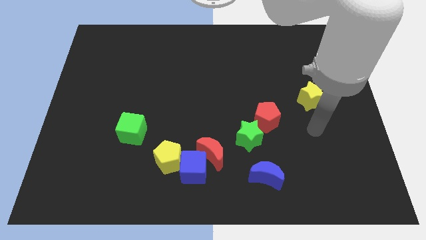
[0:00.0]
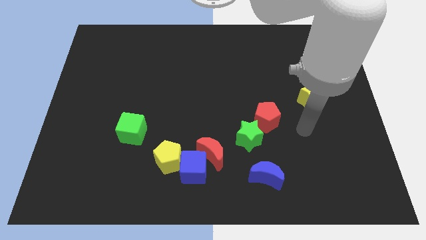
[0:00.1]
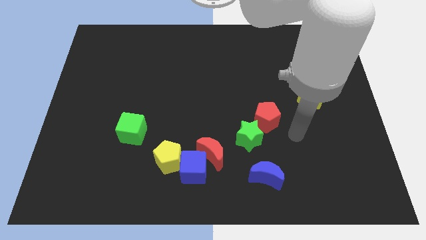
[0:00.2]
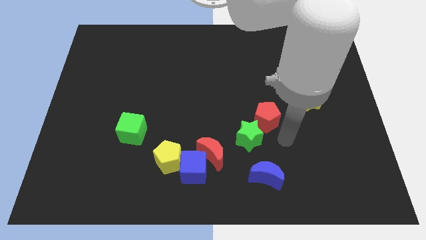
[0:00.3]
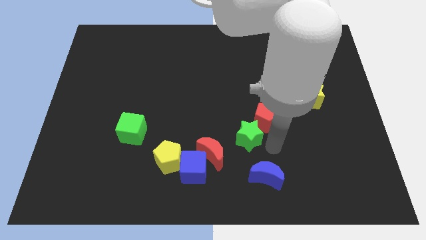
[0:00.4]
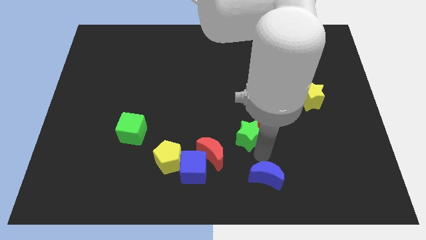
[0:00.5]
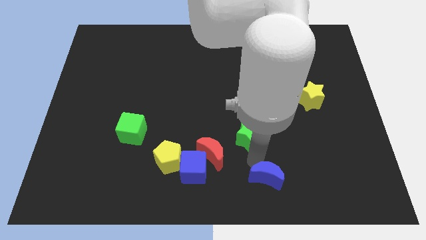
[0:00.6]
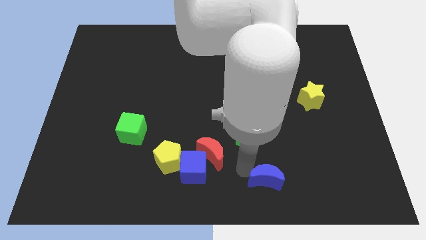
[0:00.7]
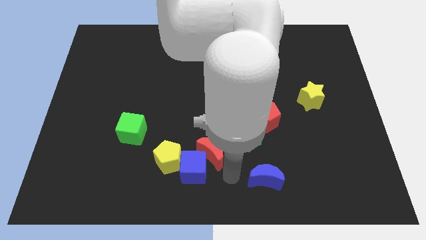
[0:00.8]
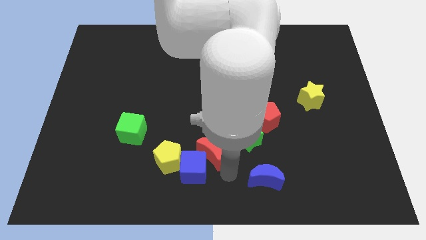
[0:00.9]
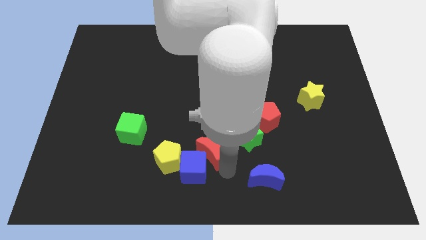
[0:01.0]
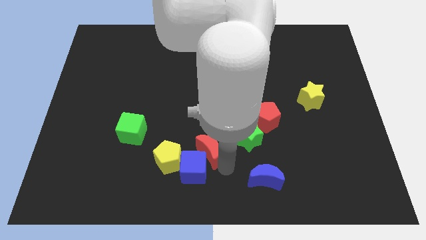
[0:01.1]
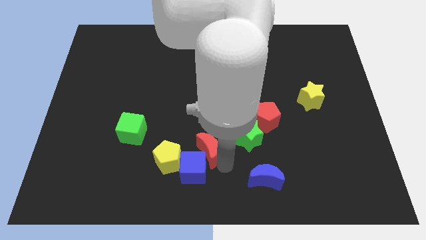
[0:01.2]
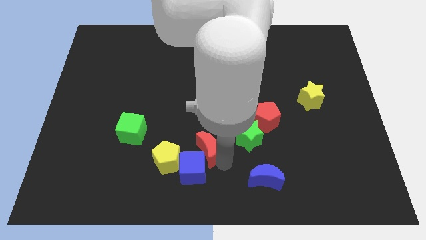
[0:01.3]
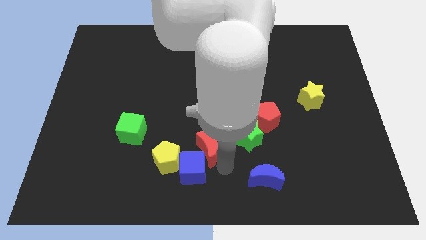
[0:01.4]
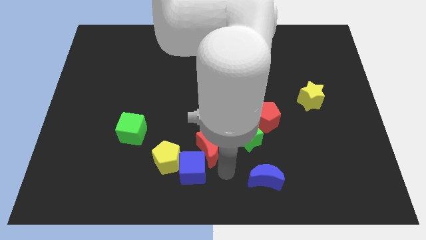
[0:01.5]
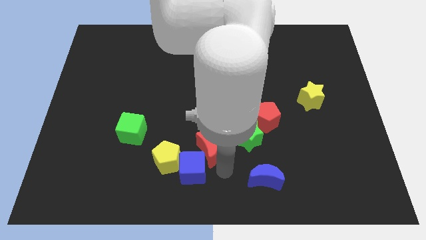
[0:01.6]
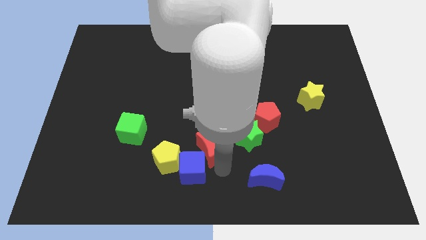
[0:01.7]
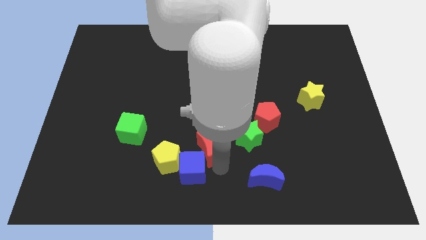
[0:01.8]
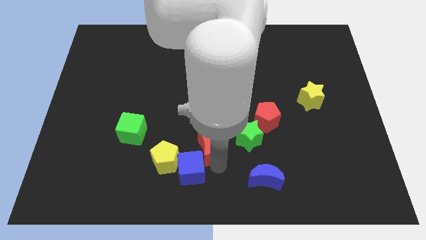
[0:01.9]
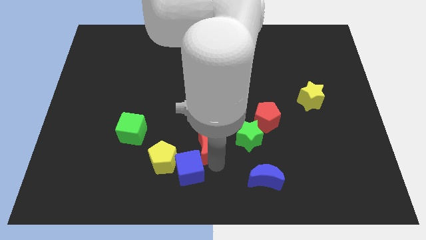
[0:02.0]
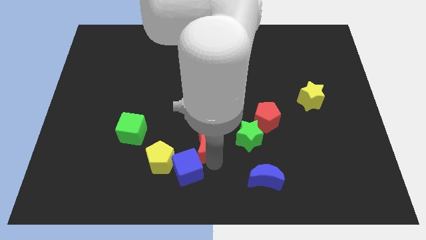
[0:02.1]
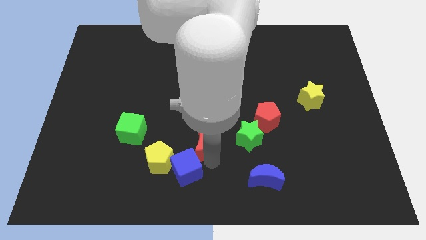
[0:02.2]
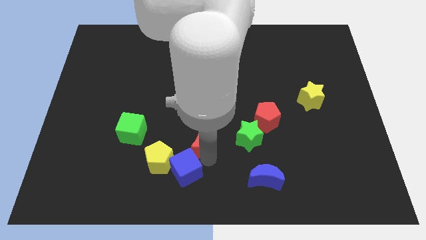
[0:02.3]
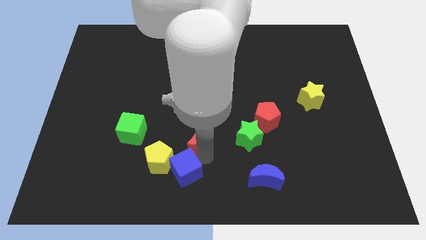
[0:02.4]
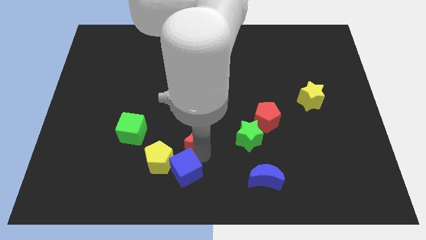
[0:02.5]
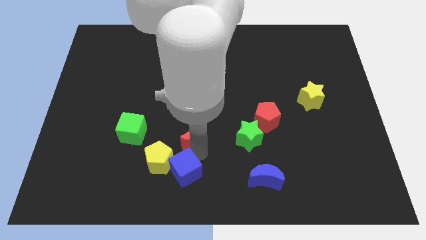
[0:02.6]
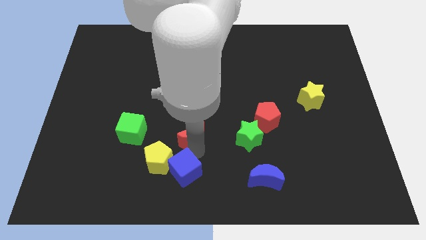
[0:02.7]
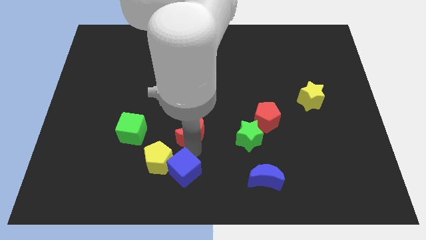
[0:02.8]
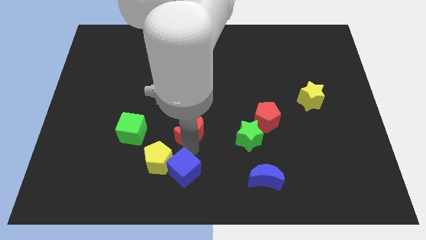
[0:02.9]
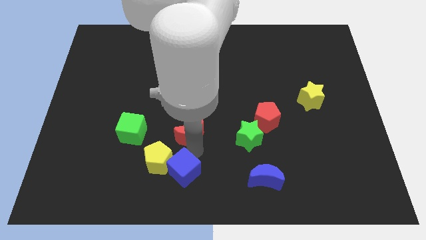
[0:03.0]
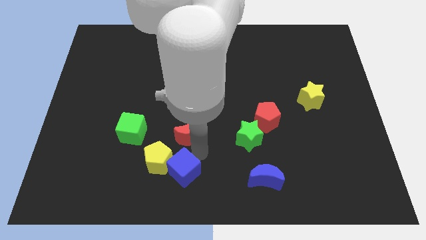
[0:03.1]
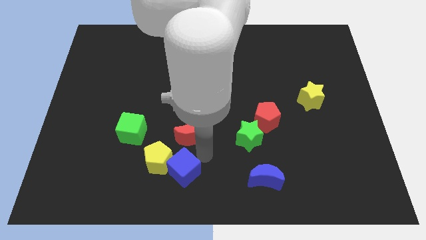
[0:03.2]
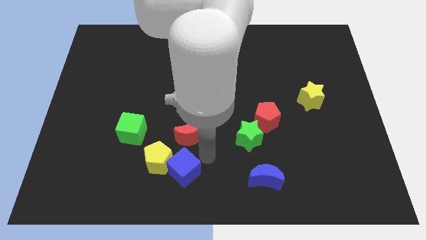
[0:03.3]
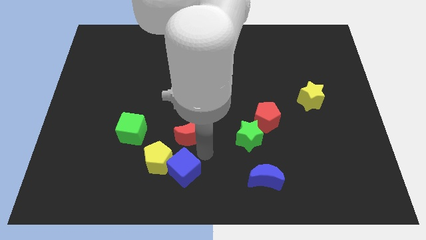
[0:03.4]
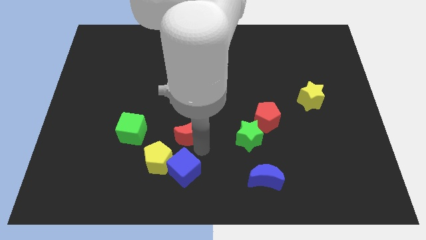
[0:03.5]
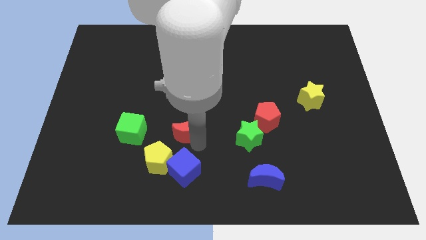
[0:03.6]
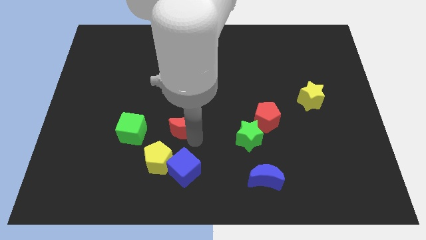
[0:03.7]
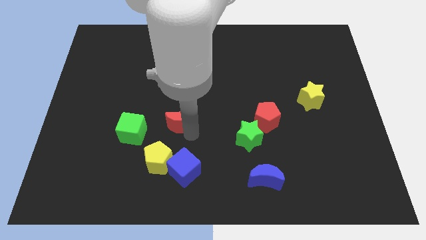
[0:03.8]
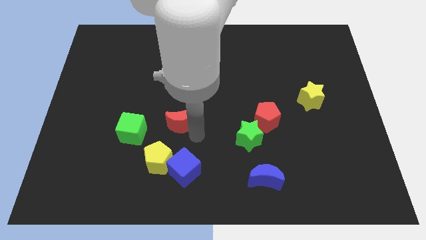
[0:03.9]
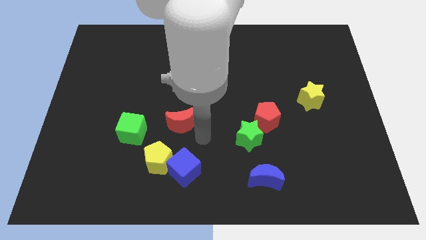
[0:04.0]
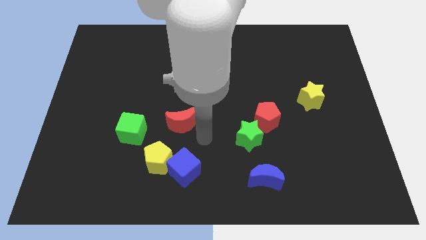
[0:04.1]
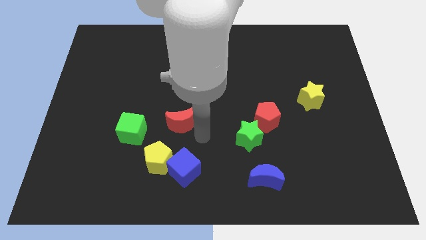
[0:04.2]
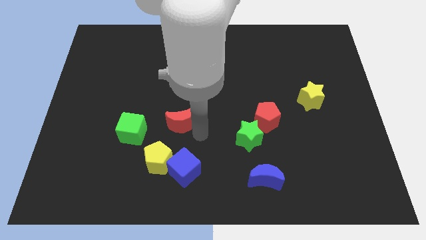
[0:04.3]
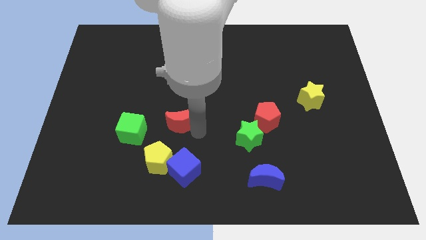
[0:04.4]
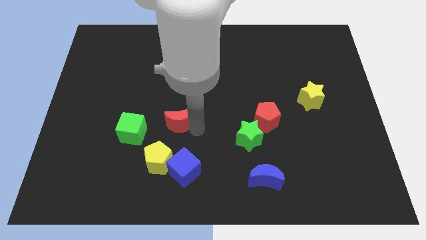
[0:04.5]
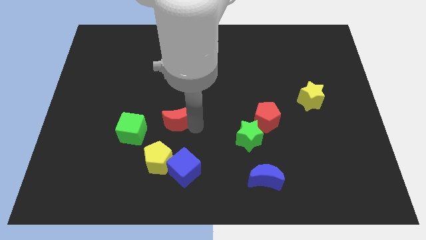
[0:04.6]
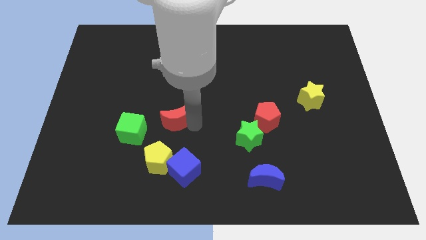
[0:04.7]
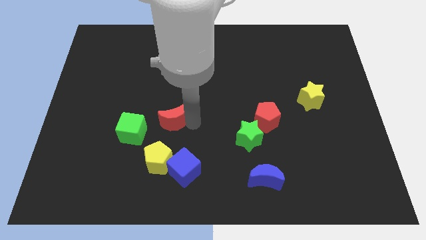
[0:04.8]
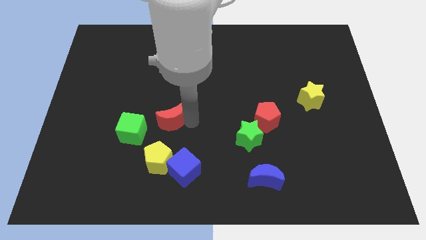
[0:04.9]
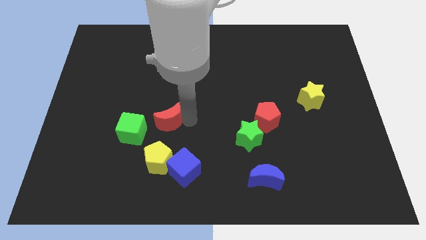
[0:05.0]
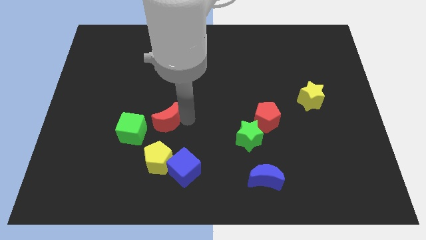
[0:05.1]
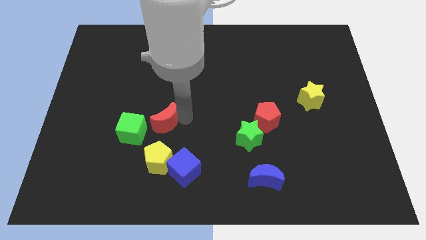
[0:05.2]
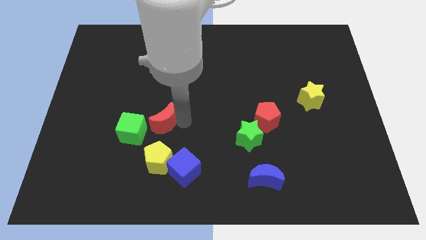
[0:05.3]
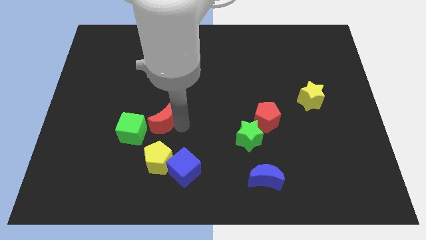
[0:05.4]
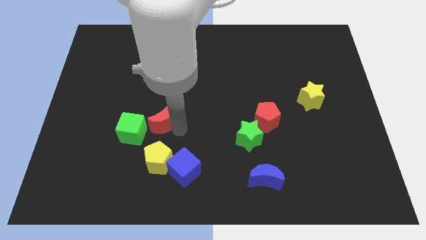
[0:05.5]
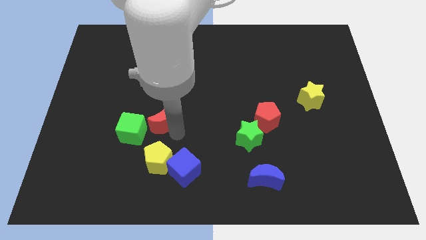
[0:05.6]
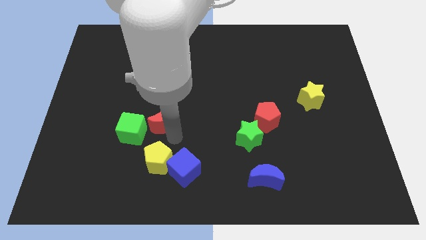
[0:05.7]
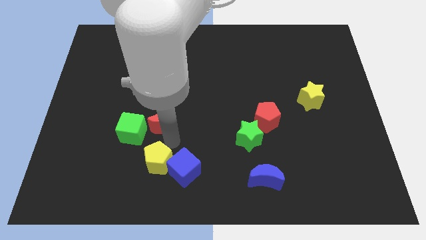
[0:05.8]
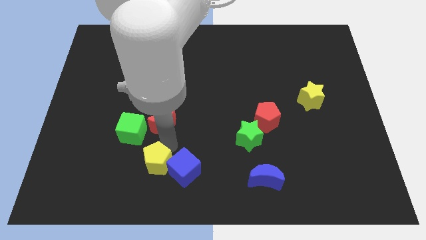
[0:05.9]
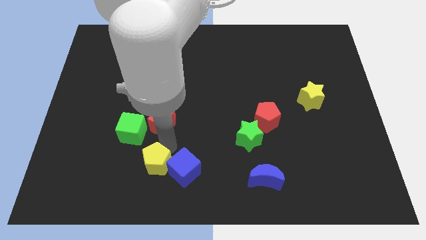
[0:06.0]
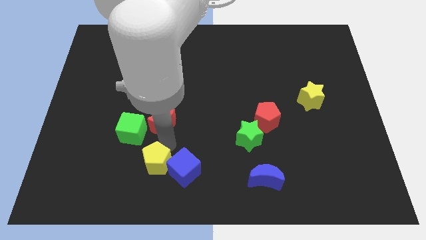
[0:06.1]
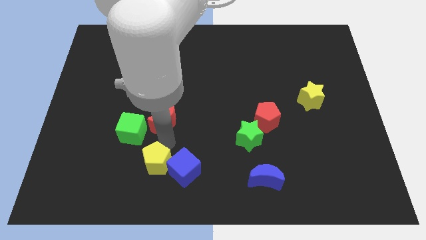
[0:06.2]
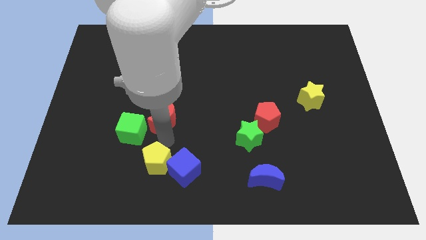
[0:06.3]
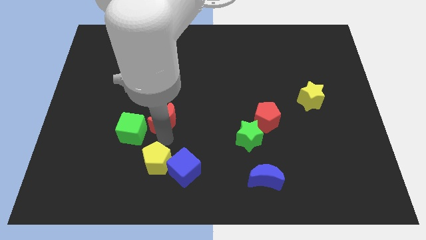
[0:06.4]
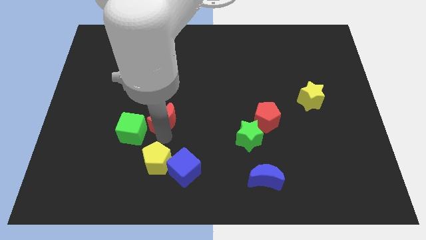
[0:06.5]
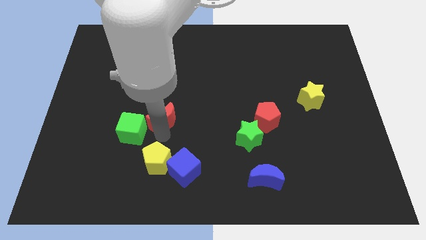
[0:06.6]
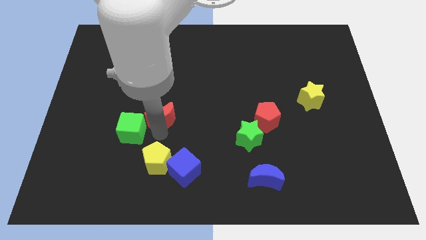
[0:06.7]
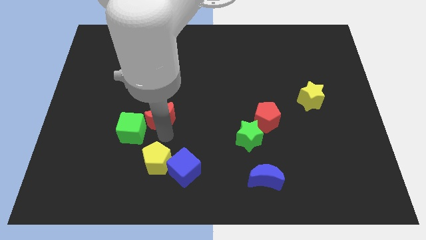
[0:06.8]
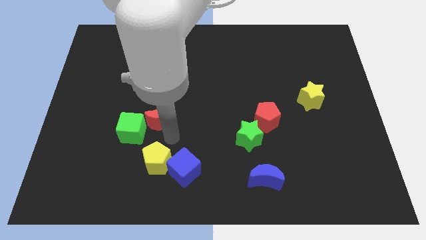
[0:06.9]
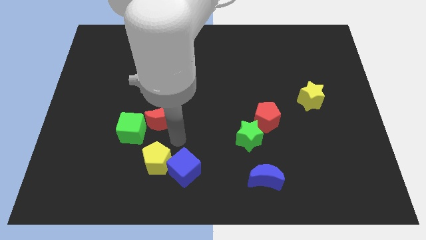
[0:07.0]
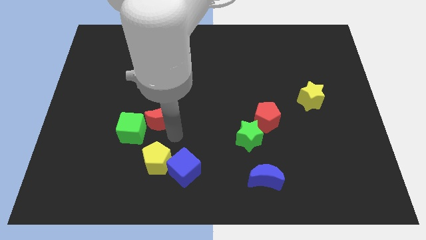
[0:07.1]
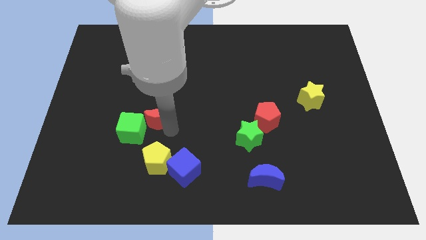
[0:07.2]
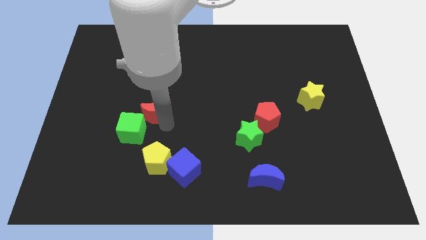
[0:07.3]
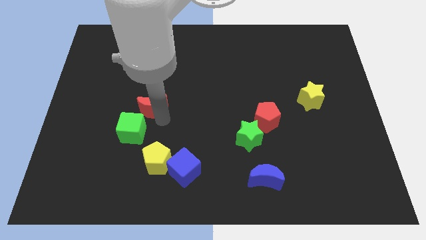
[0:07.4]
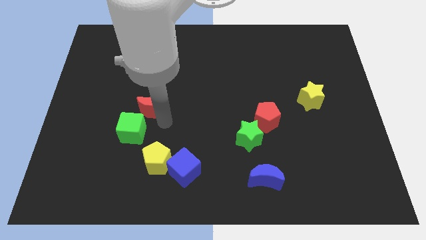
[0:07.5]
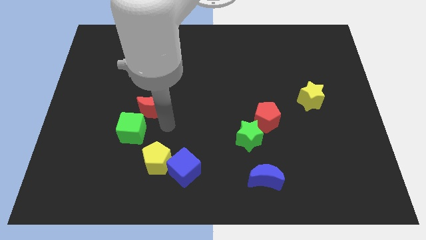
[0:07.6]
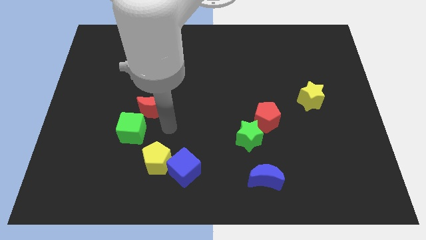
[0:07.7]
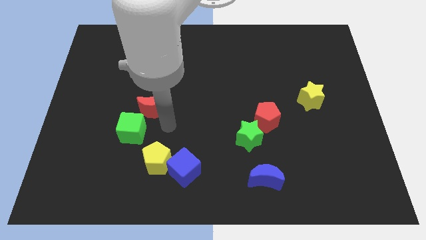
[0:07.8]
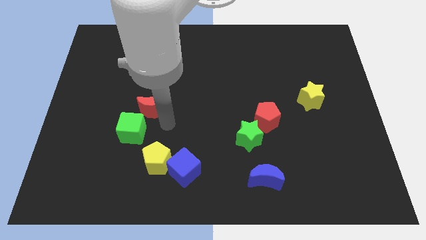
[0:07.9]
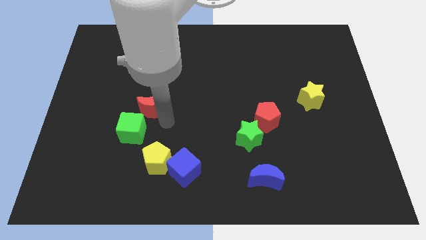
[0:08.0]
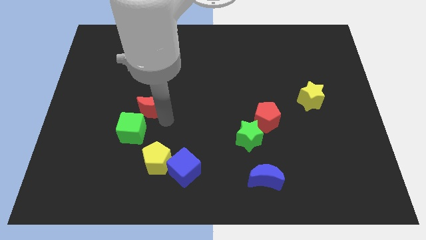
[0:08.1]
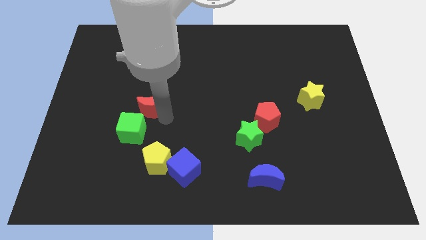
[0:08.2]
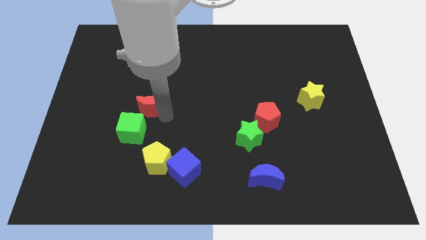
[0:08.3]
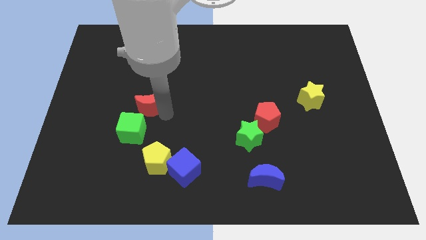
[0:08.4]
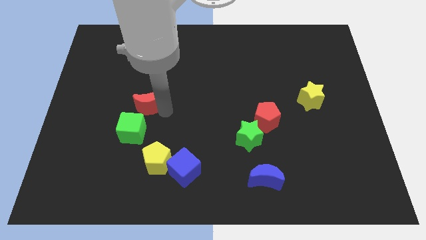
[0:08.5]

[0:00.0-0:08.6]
push the red moon upwards and to the left diagonally
